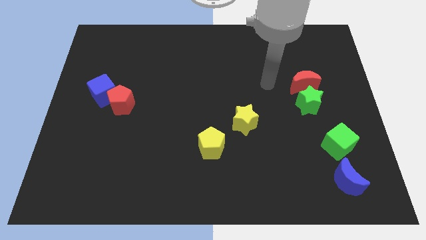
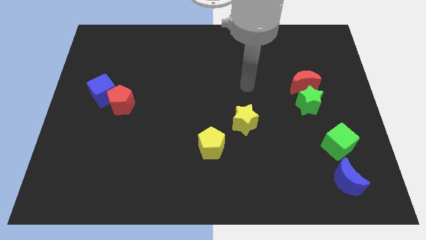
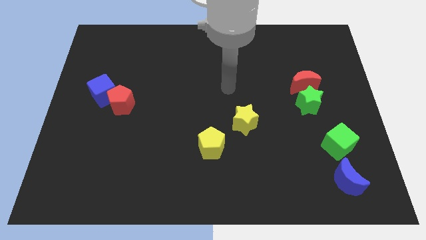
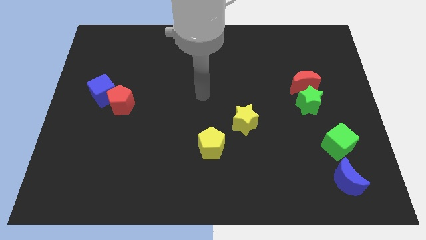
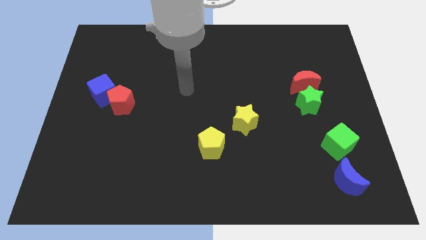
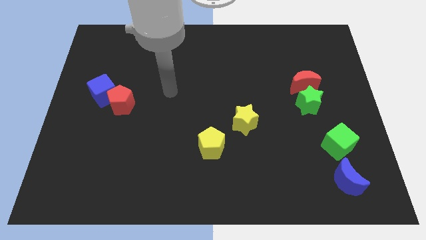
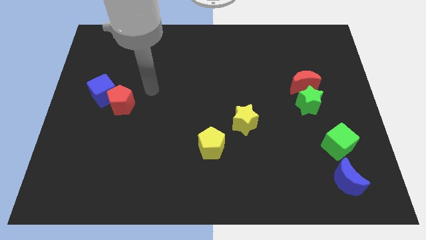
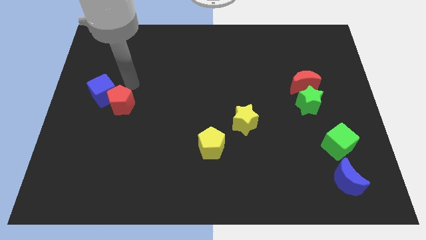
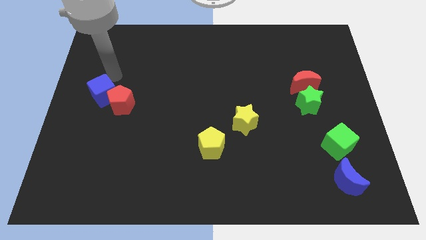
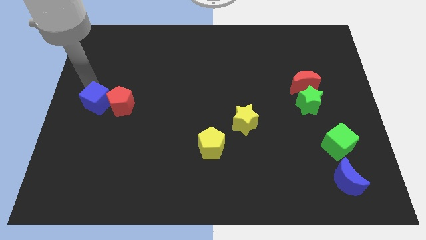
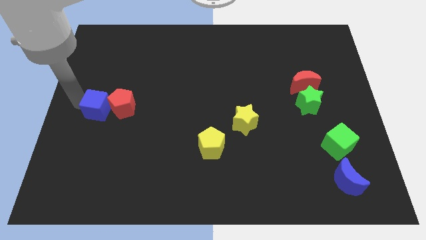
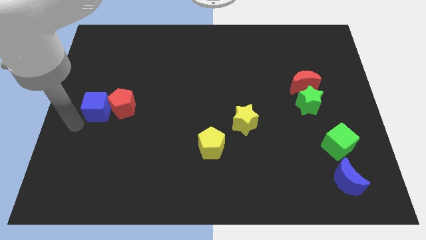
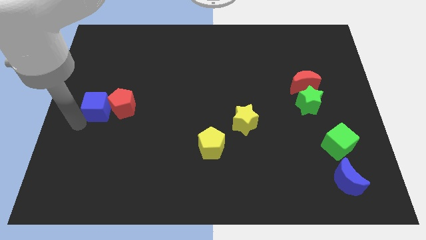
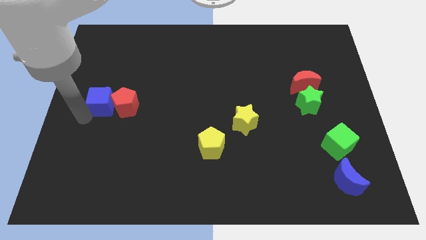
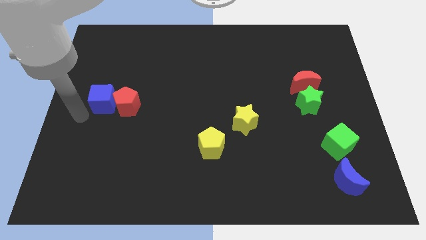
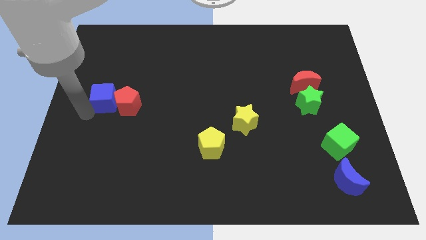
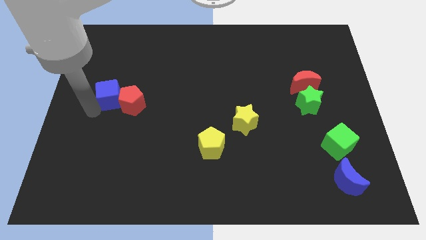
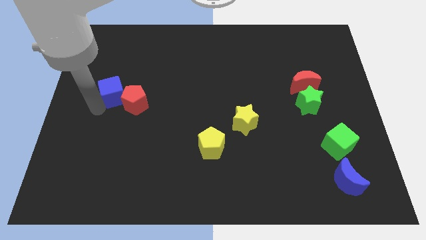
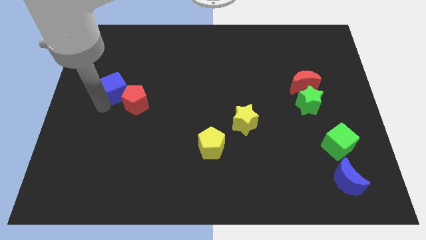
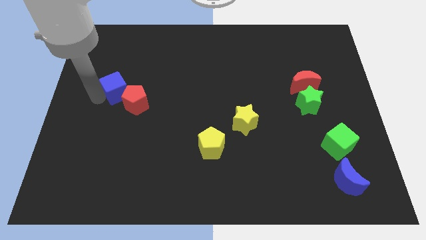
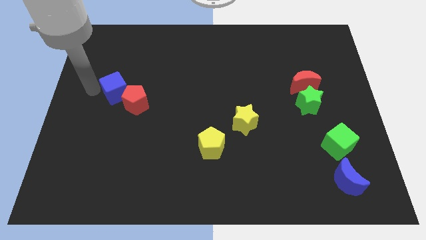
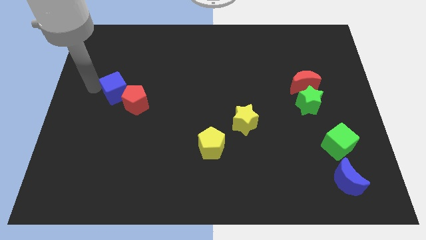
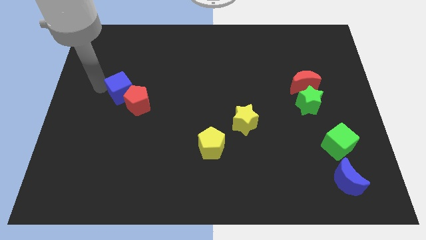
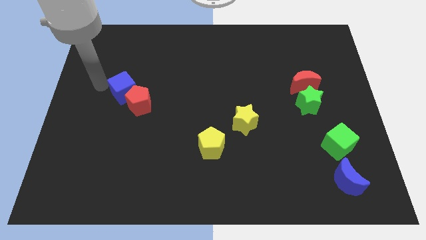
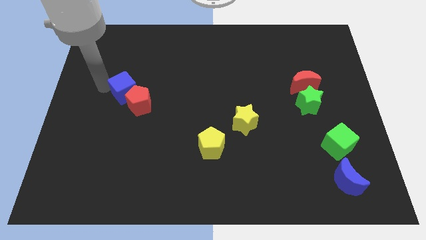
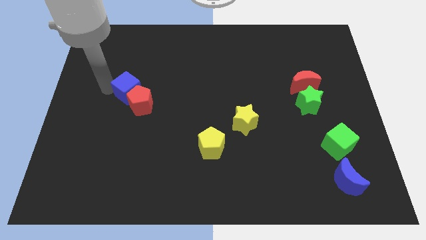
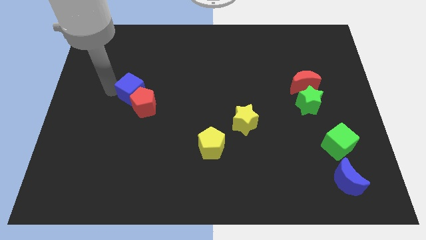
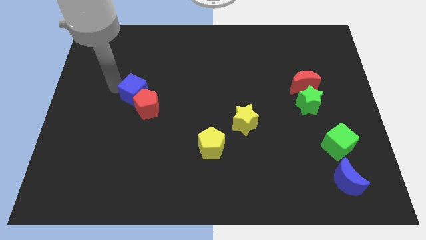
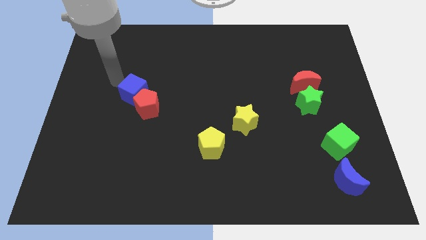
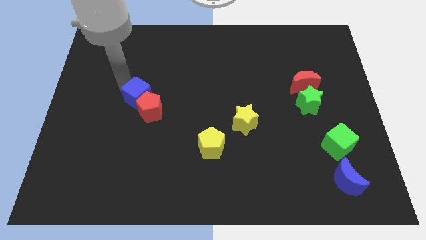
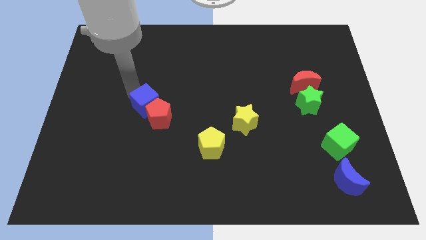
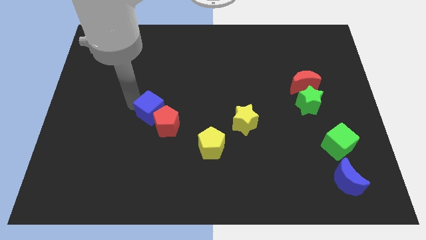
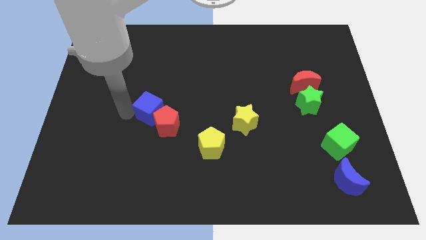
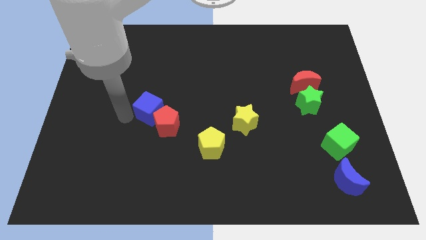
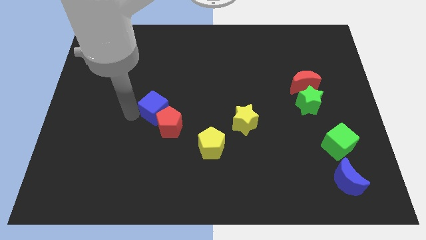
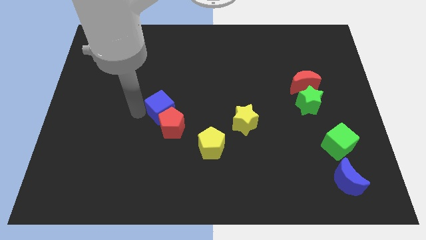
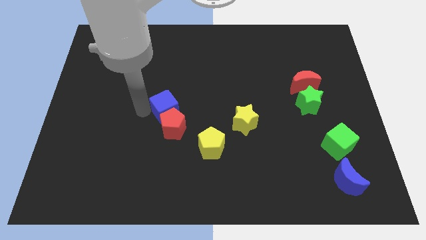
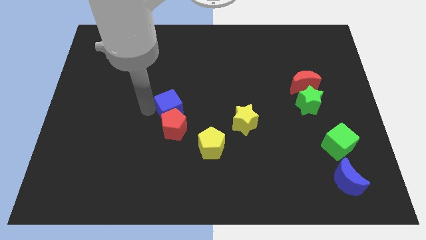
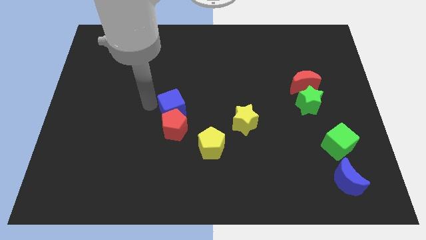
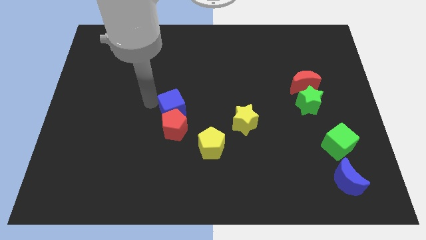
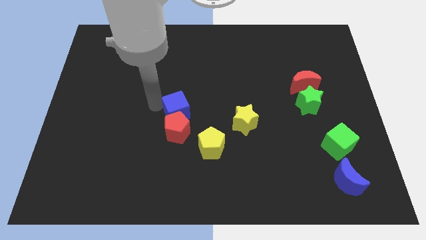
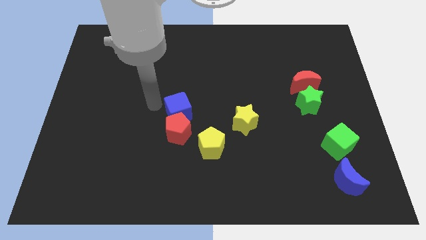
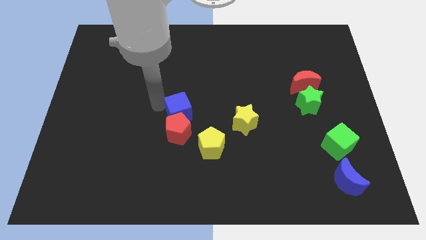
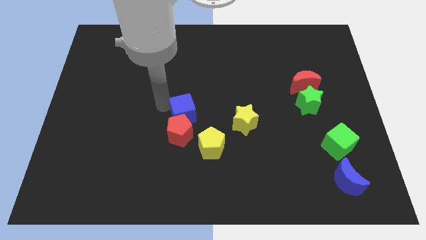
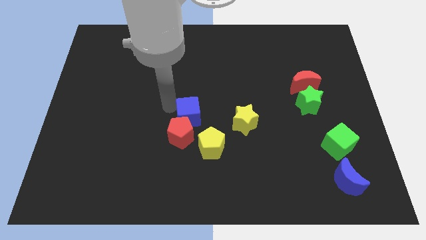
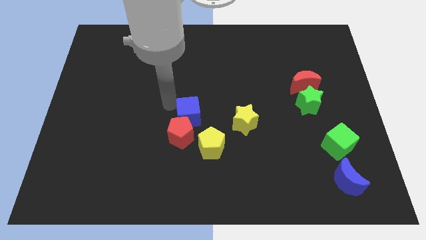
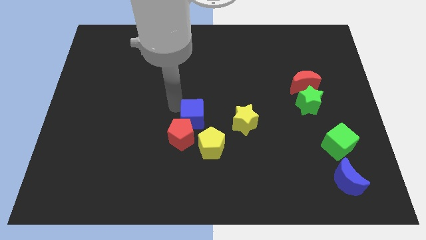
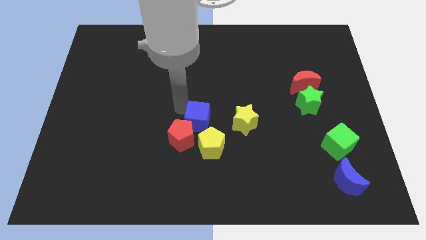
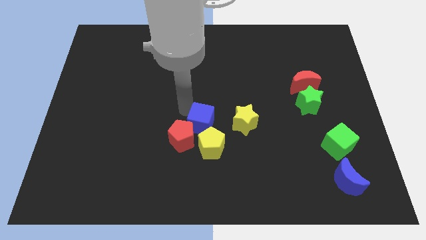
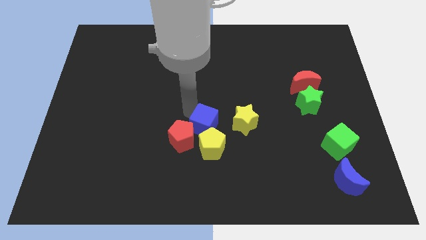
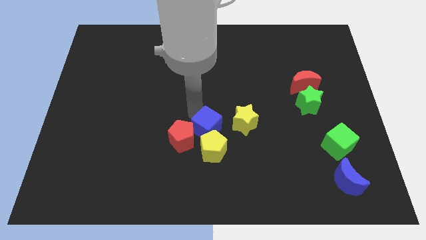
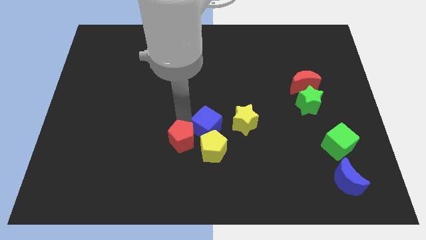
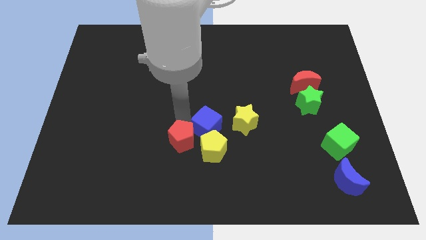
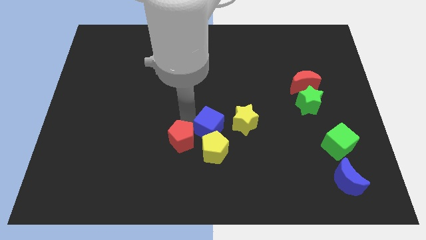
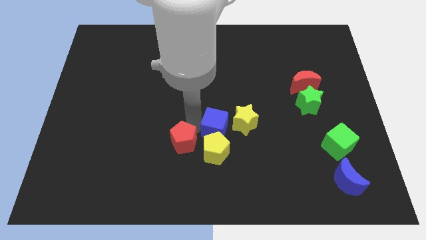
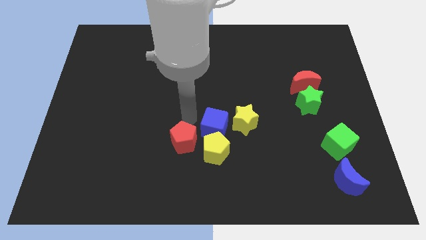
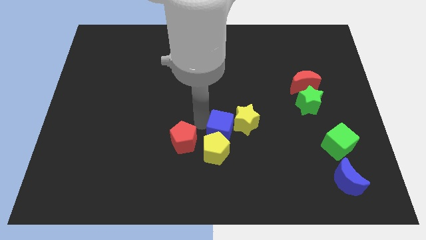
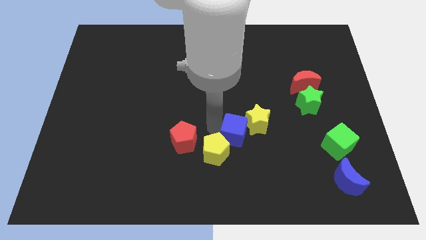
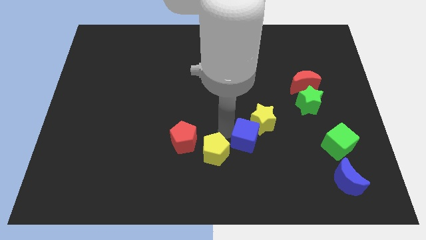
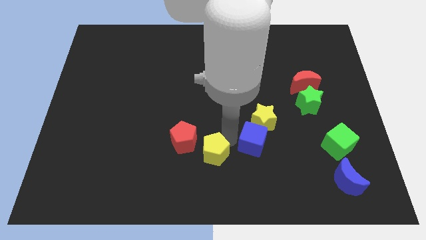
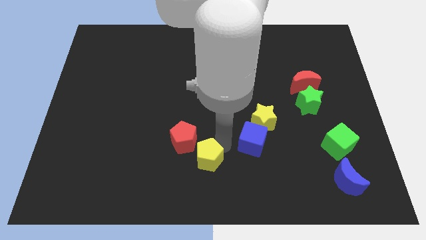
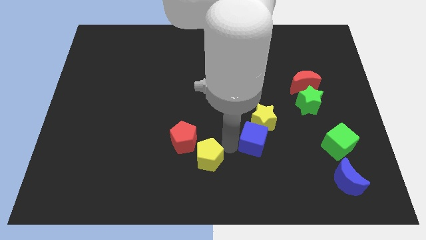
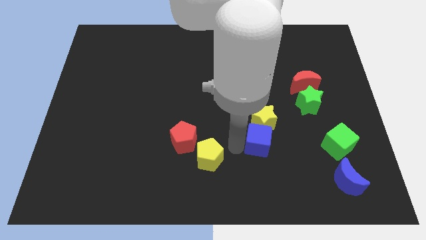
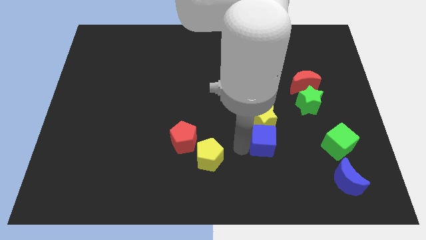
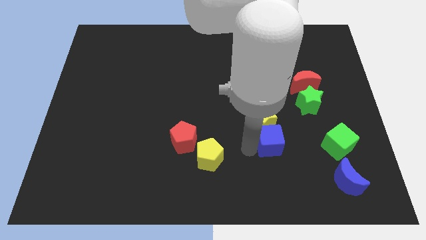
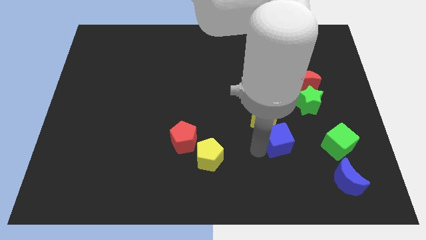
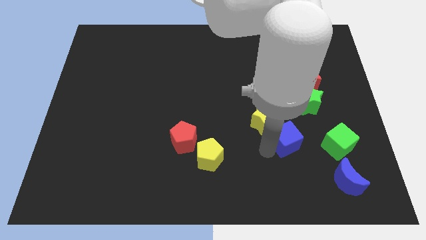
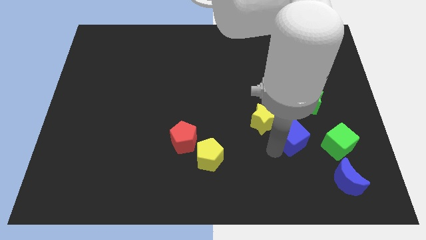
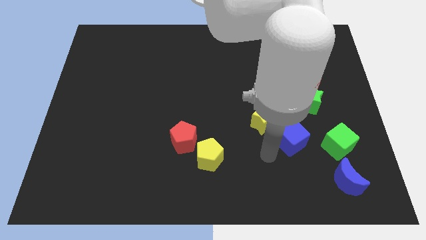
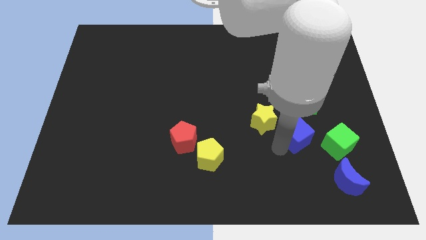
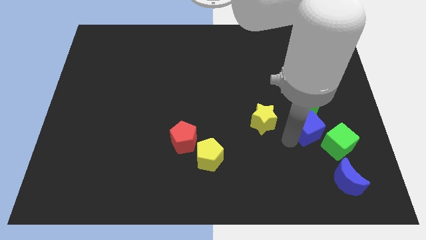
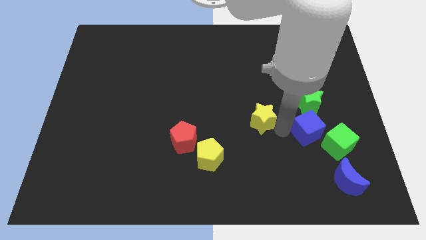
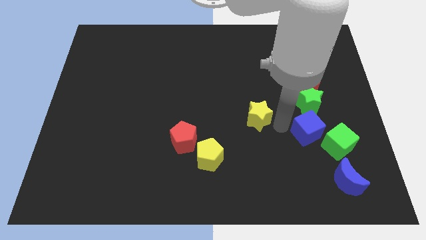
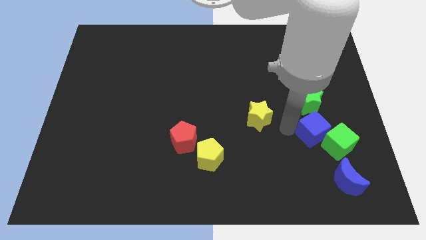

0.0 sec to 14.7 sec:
move the blue cube above the blue moon

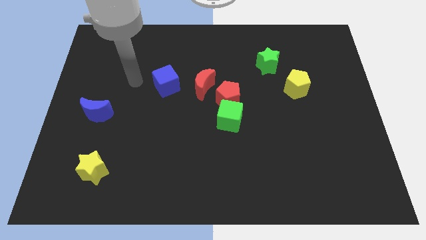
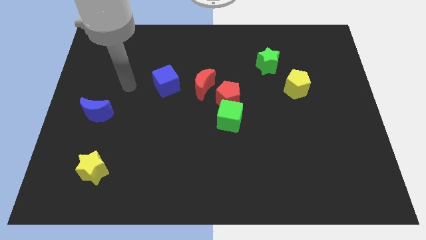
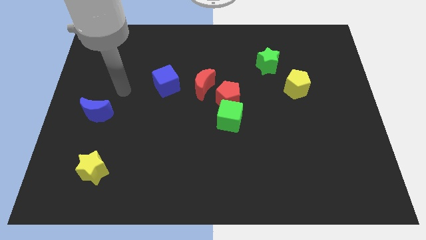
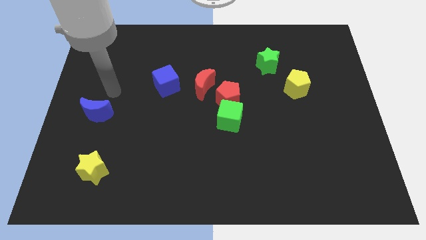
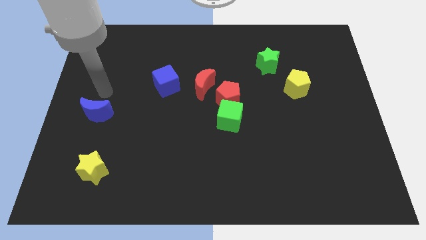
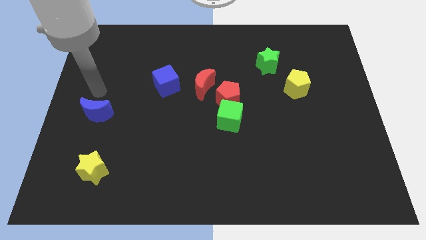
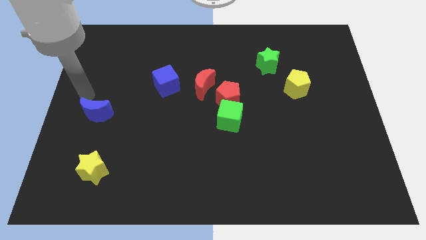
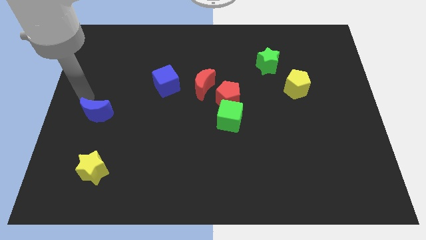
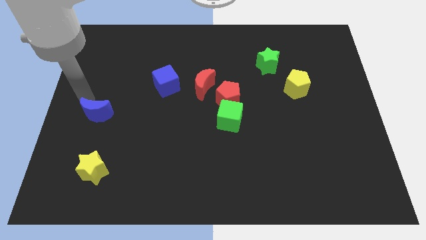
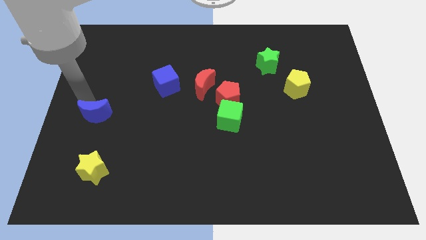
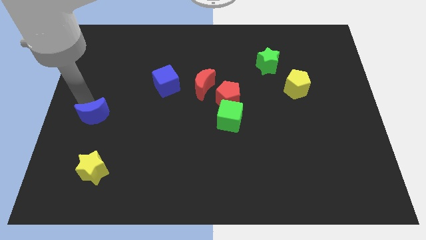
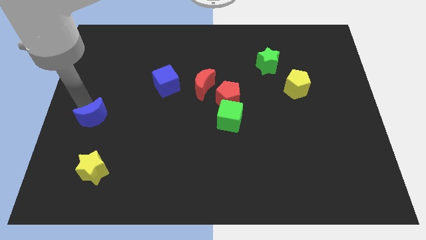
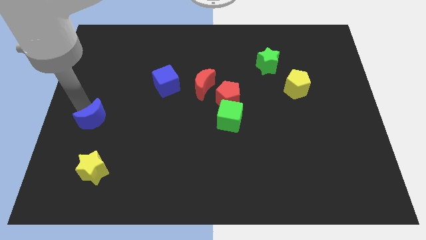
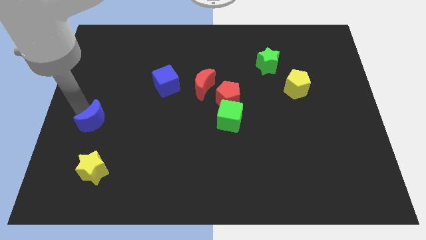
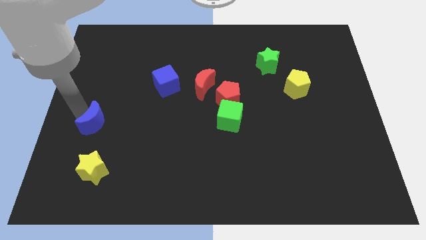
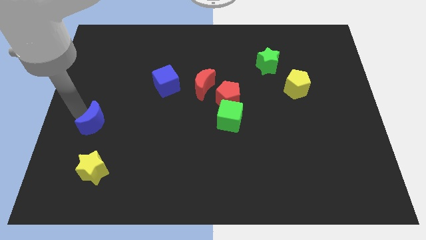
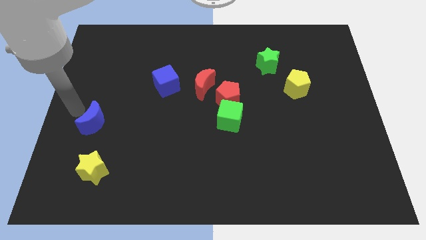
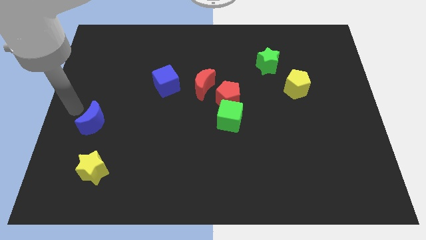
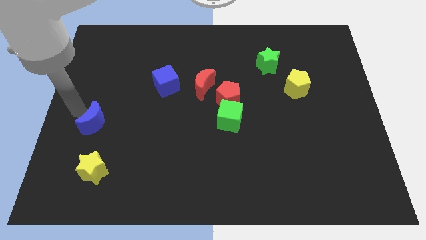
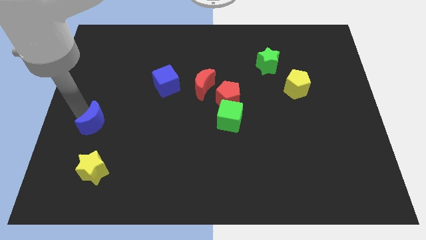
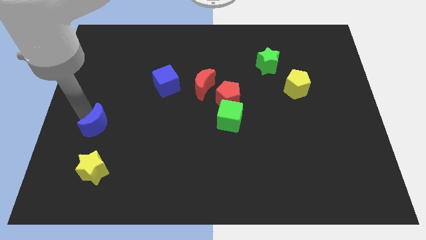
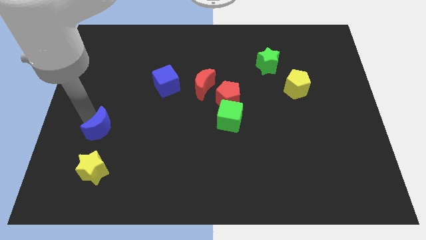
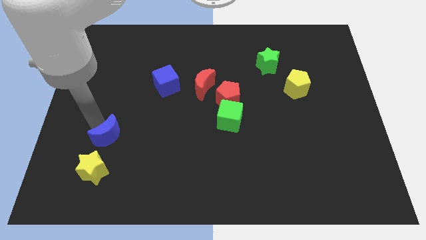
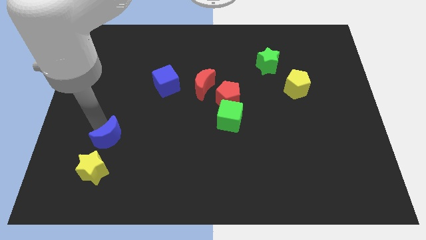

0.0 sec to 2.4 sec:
push the blue moon to the top right side of the yellow star
